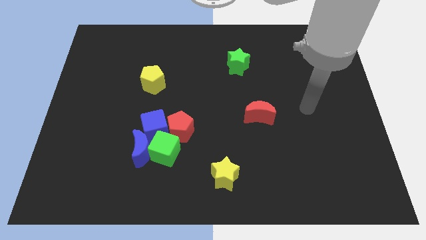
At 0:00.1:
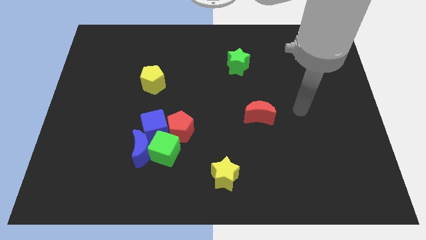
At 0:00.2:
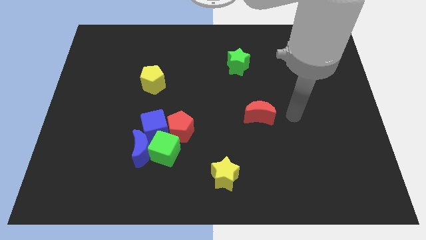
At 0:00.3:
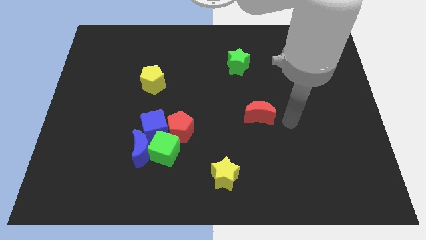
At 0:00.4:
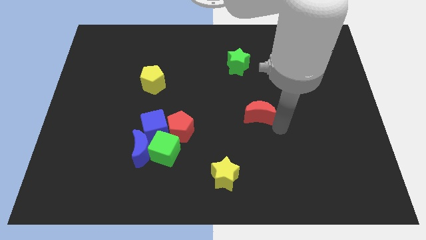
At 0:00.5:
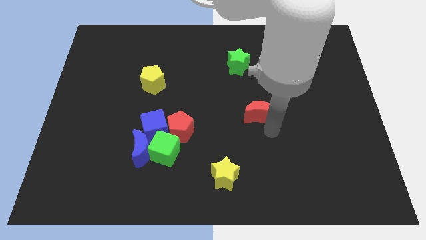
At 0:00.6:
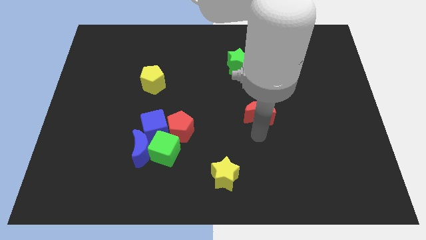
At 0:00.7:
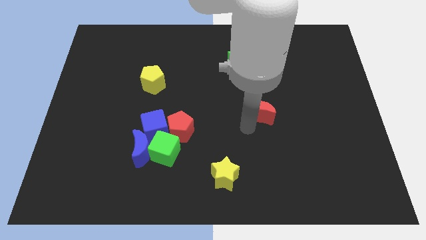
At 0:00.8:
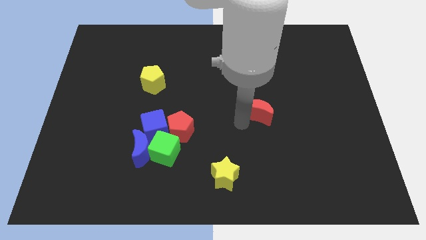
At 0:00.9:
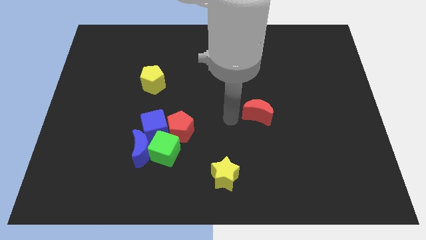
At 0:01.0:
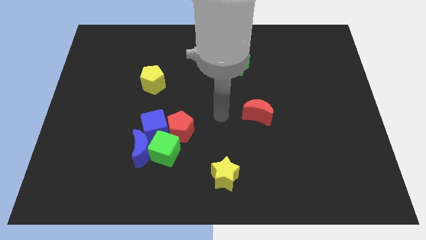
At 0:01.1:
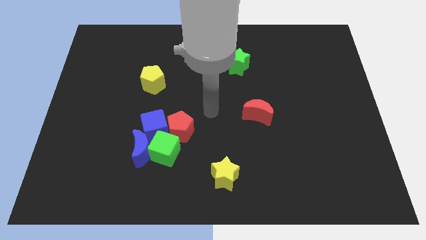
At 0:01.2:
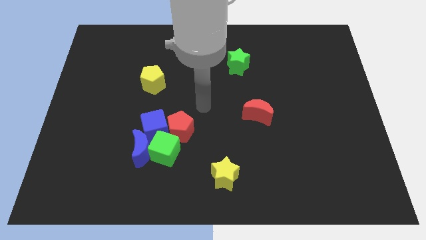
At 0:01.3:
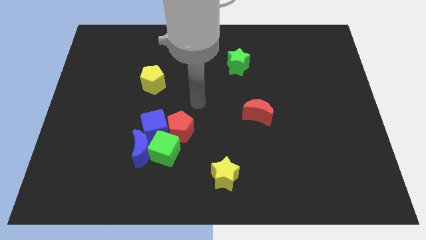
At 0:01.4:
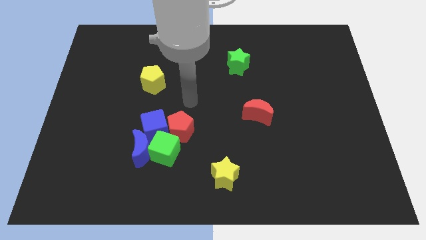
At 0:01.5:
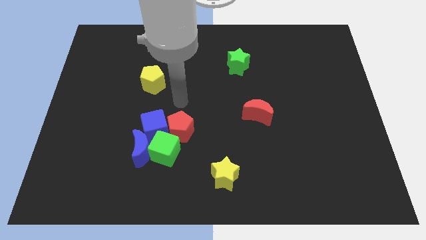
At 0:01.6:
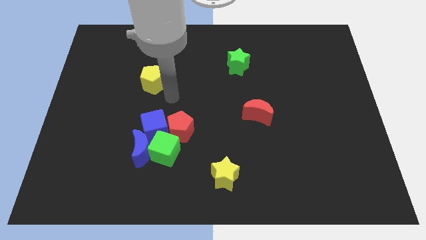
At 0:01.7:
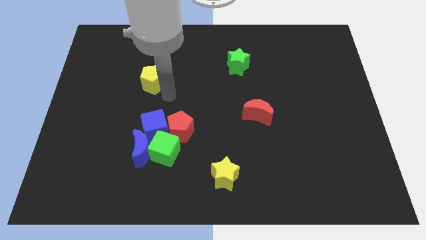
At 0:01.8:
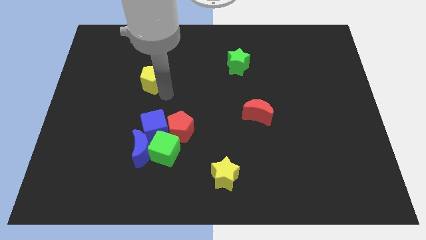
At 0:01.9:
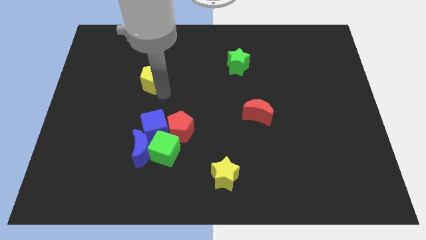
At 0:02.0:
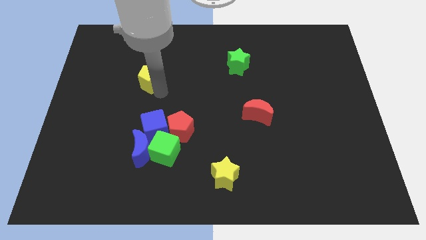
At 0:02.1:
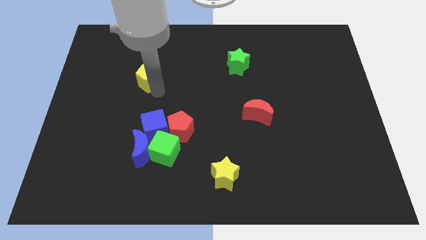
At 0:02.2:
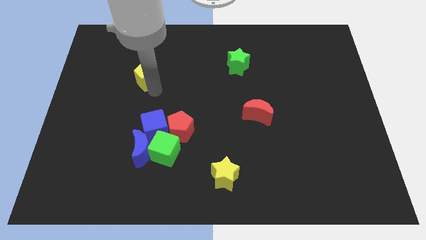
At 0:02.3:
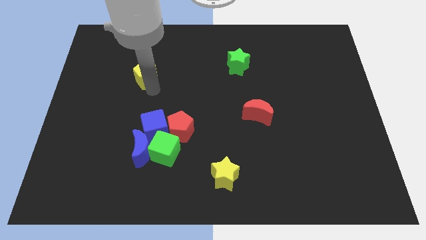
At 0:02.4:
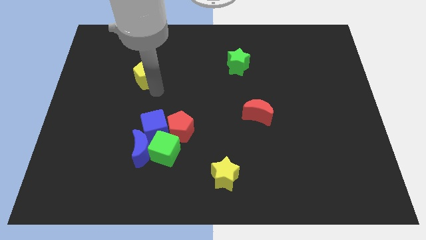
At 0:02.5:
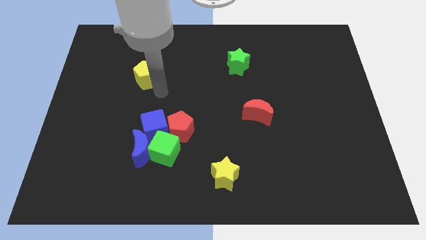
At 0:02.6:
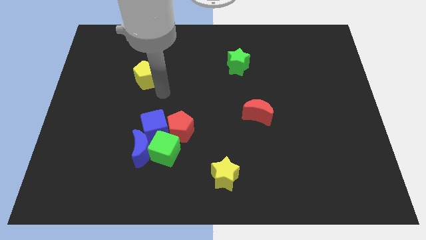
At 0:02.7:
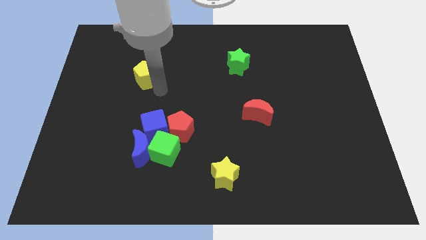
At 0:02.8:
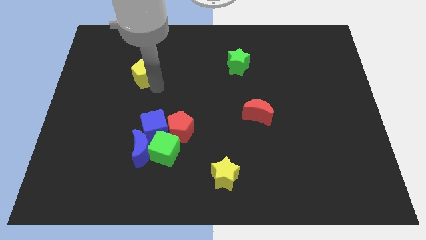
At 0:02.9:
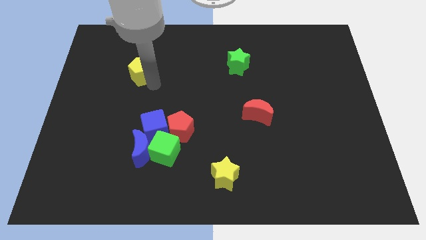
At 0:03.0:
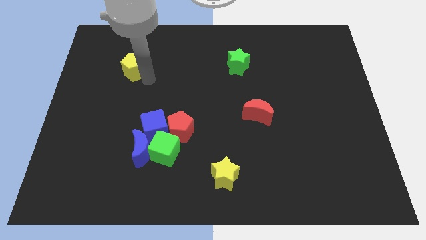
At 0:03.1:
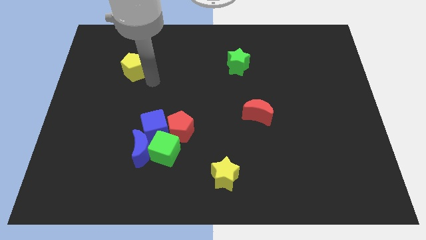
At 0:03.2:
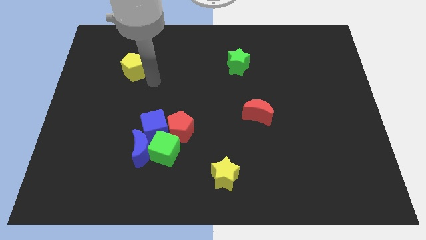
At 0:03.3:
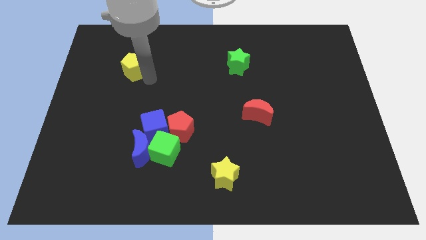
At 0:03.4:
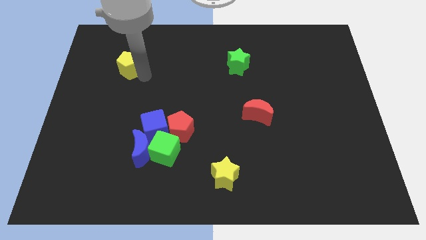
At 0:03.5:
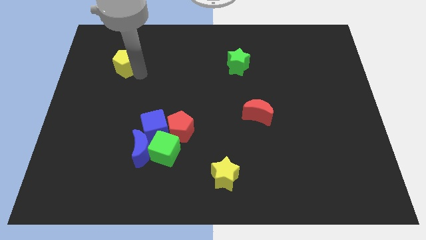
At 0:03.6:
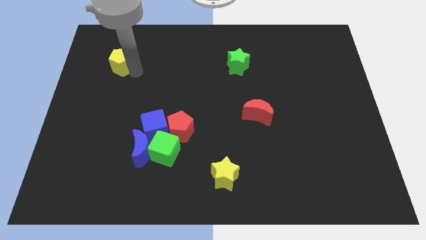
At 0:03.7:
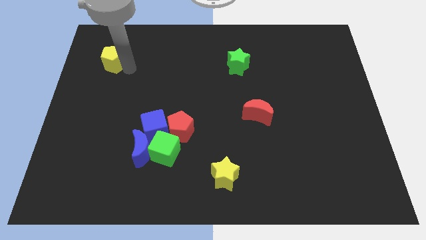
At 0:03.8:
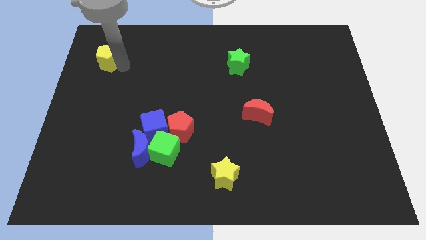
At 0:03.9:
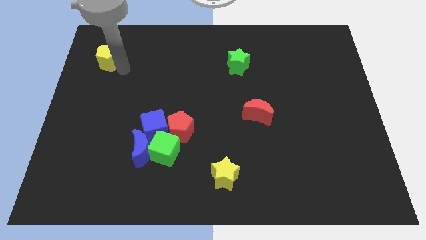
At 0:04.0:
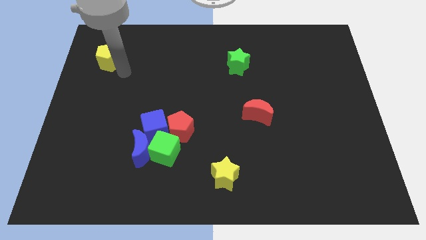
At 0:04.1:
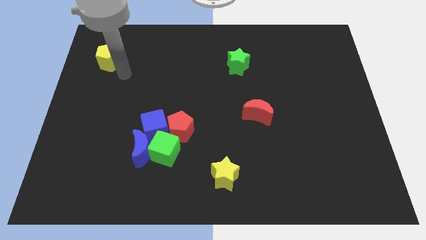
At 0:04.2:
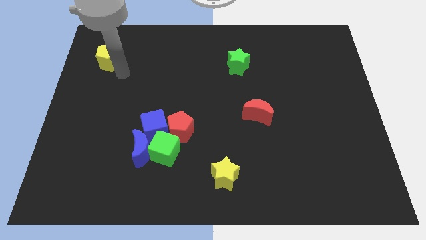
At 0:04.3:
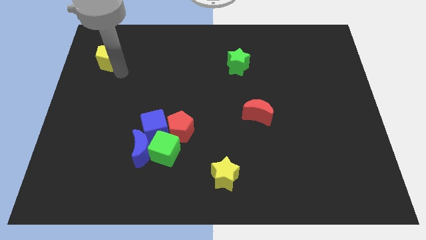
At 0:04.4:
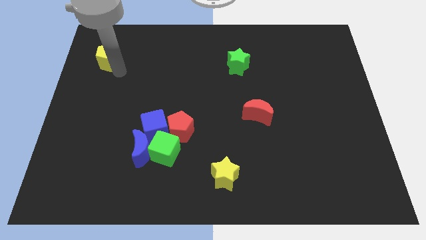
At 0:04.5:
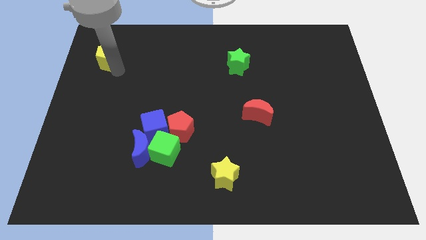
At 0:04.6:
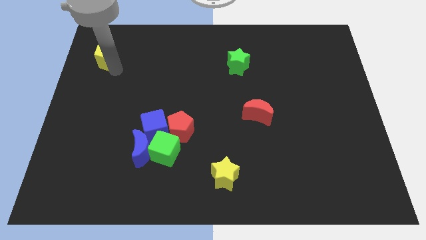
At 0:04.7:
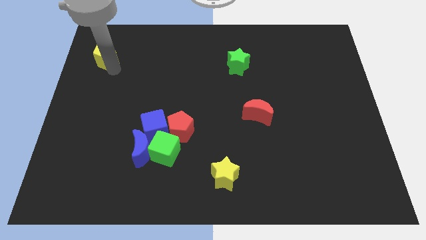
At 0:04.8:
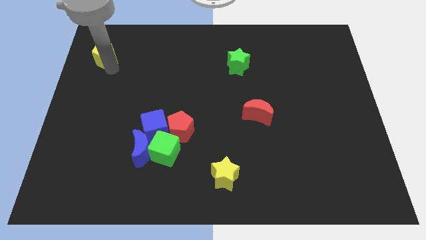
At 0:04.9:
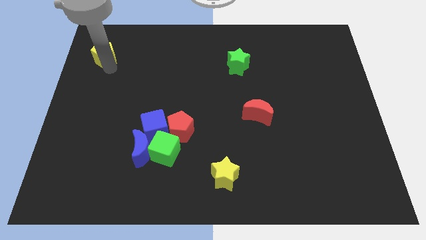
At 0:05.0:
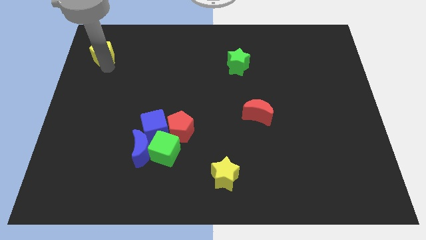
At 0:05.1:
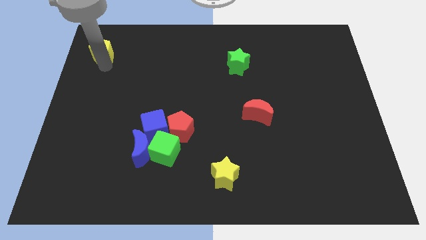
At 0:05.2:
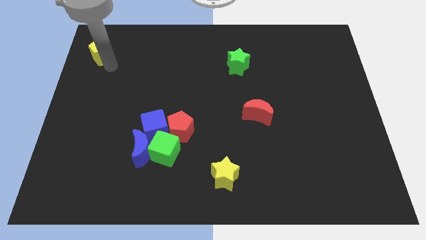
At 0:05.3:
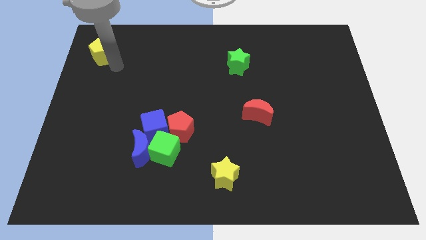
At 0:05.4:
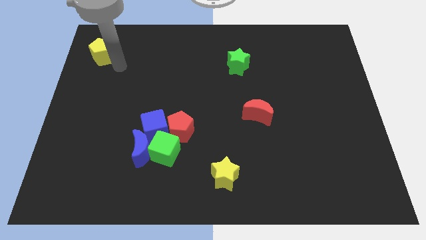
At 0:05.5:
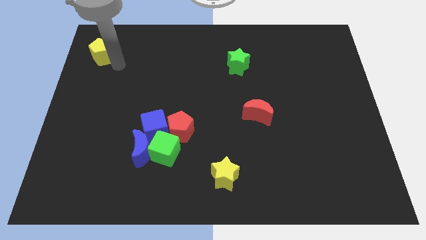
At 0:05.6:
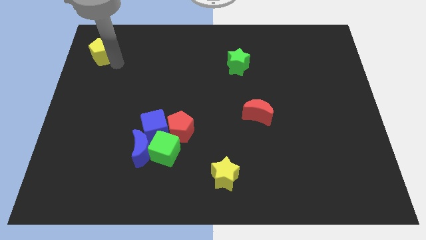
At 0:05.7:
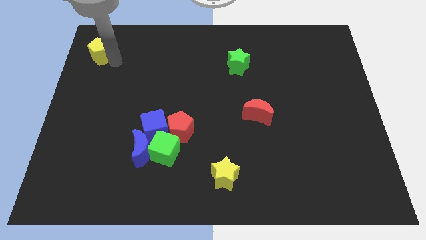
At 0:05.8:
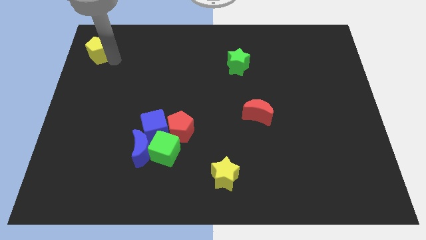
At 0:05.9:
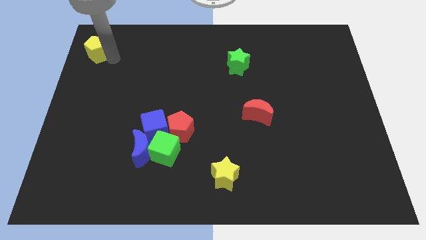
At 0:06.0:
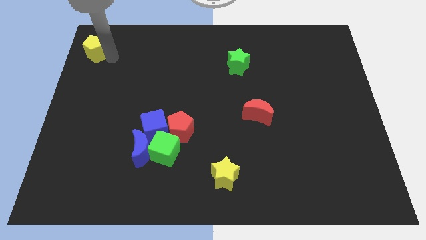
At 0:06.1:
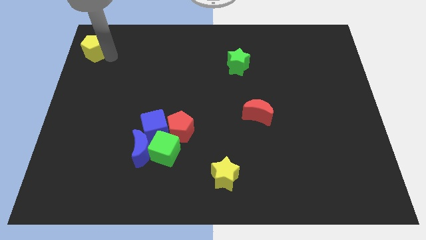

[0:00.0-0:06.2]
put the yellow pentagon to the top left of the board

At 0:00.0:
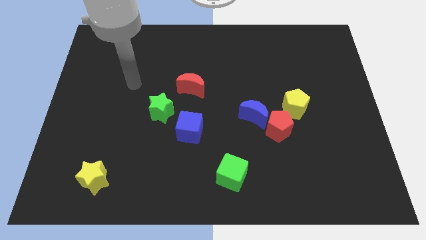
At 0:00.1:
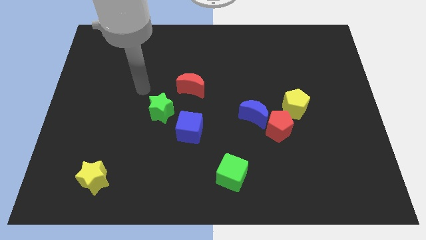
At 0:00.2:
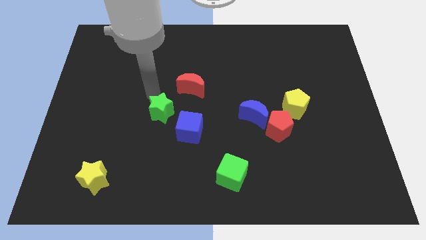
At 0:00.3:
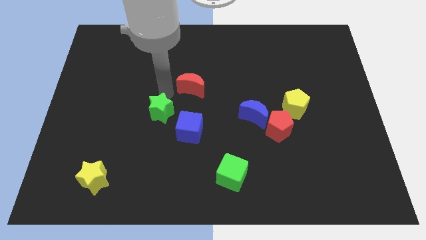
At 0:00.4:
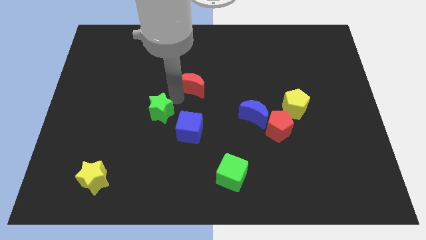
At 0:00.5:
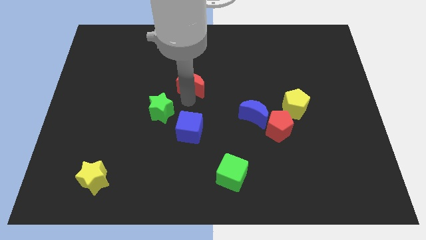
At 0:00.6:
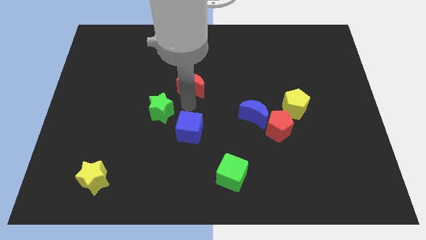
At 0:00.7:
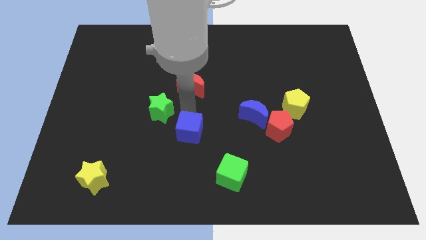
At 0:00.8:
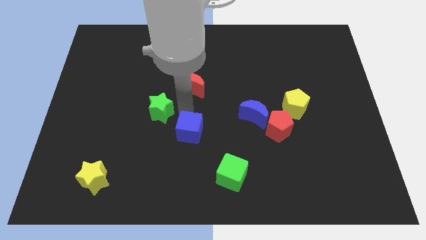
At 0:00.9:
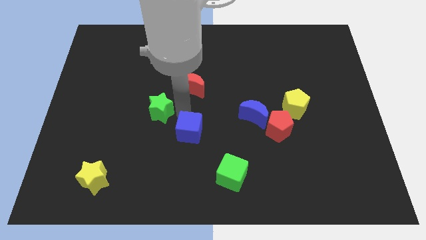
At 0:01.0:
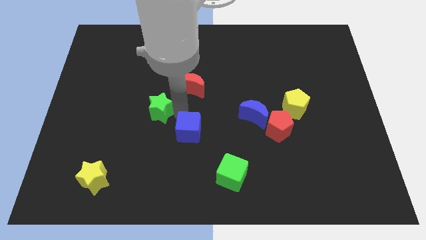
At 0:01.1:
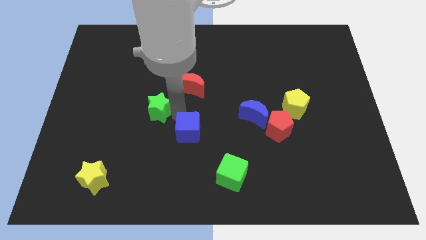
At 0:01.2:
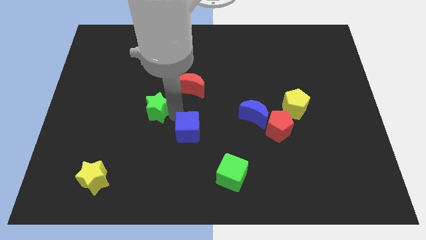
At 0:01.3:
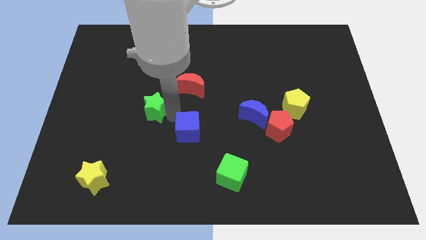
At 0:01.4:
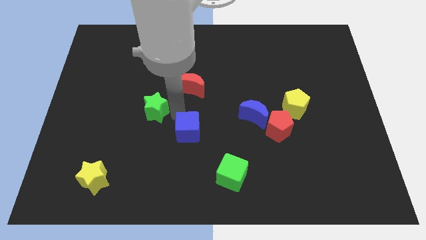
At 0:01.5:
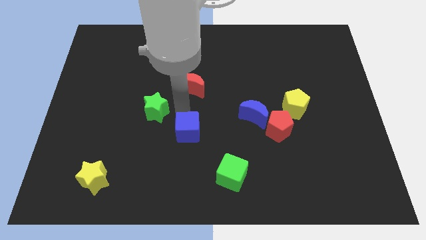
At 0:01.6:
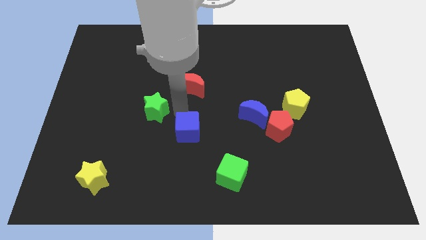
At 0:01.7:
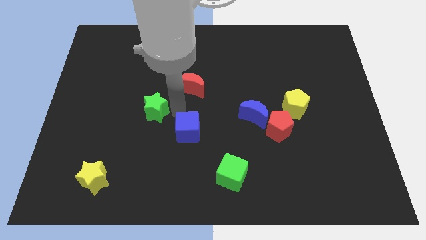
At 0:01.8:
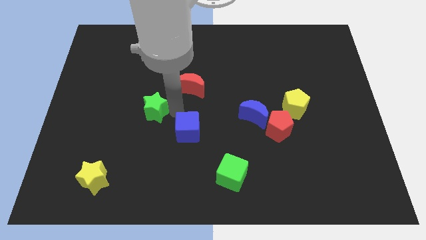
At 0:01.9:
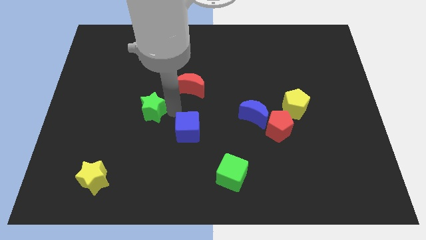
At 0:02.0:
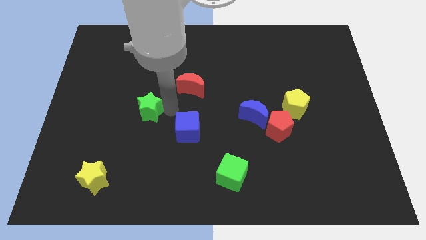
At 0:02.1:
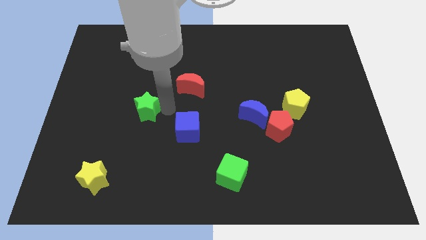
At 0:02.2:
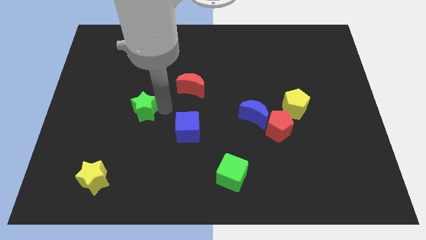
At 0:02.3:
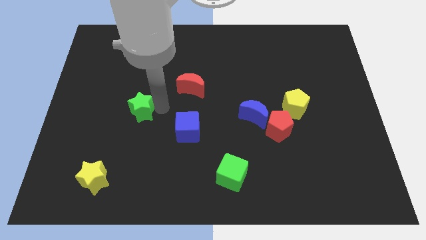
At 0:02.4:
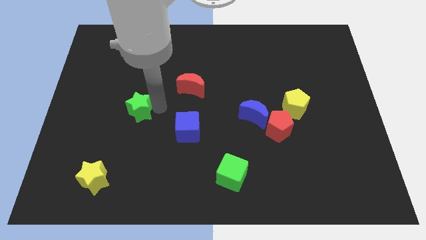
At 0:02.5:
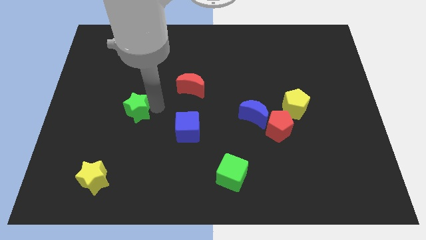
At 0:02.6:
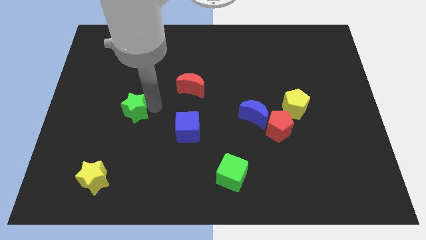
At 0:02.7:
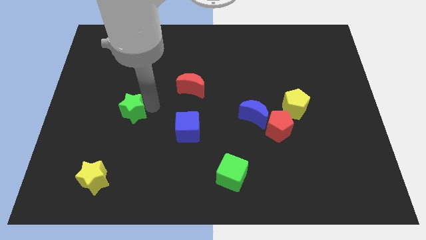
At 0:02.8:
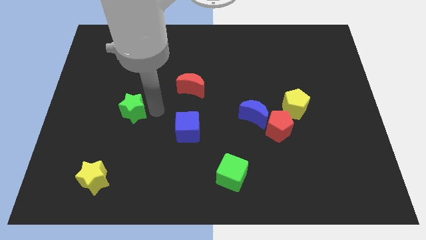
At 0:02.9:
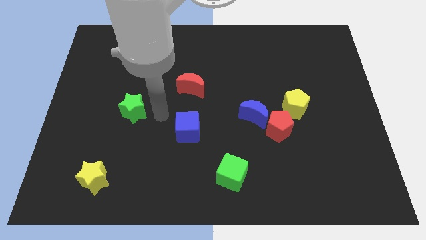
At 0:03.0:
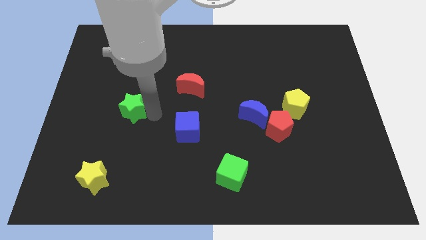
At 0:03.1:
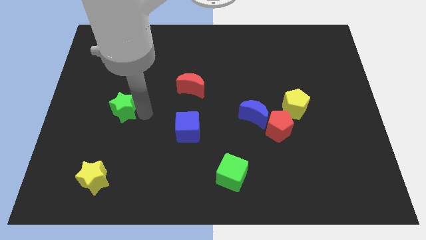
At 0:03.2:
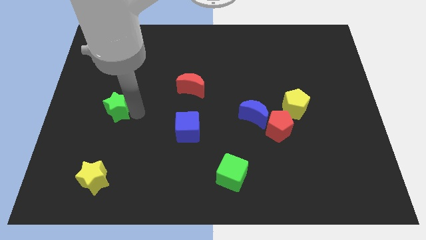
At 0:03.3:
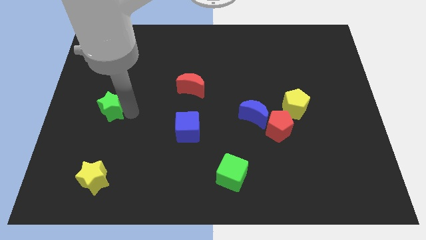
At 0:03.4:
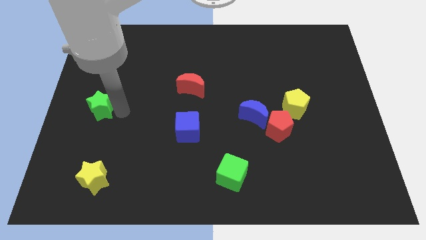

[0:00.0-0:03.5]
move the green star to the left side
